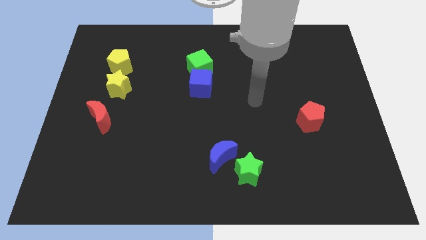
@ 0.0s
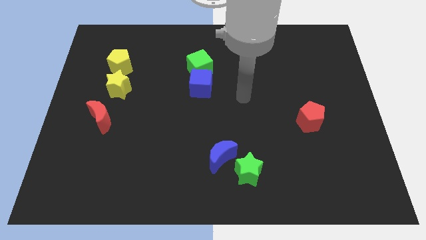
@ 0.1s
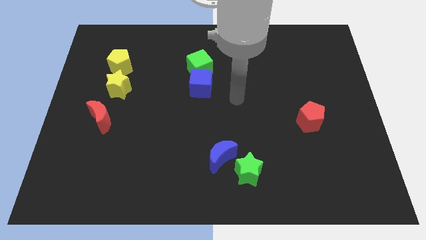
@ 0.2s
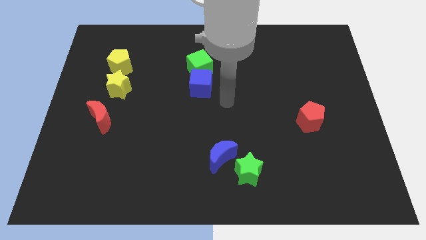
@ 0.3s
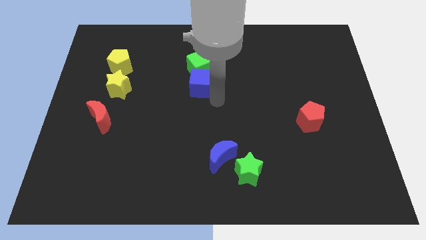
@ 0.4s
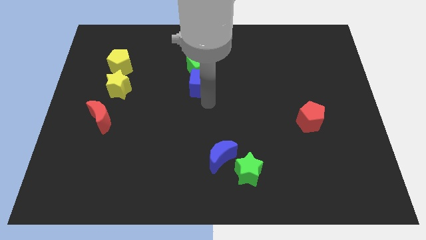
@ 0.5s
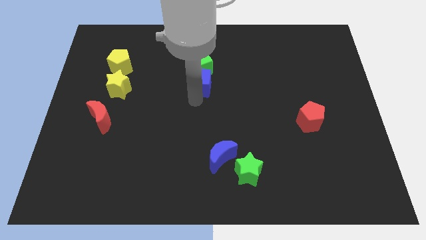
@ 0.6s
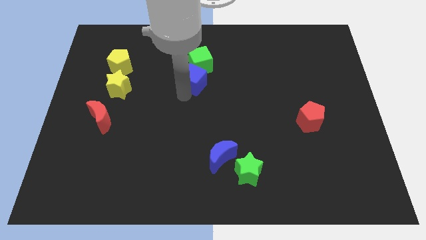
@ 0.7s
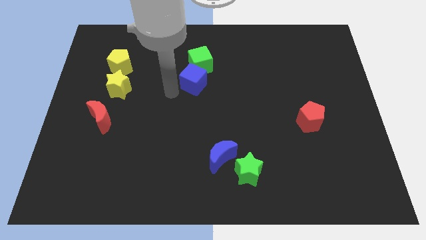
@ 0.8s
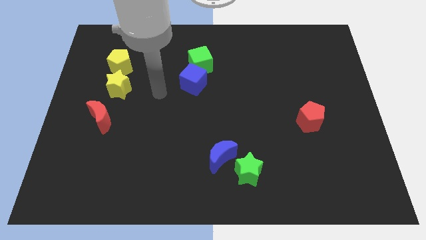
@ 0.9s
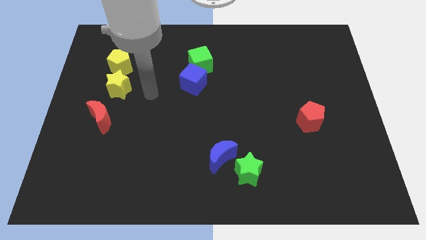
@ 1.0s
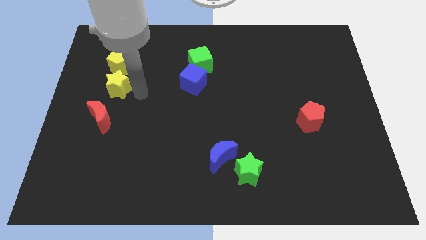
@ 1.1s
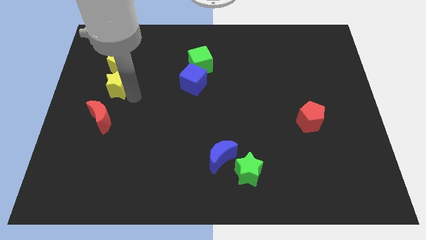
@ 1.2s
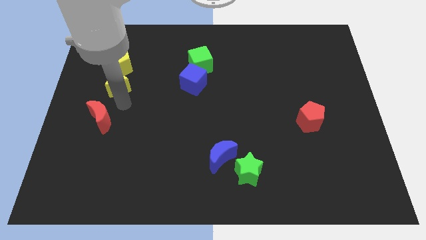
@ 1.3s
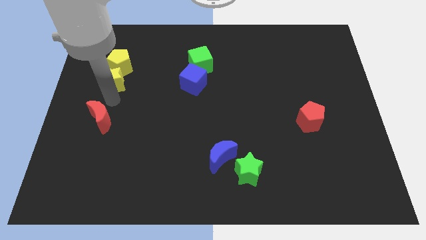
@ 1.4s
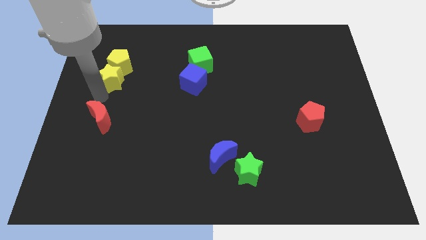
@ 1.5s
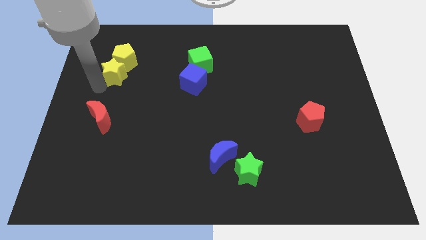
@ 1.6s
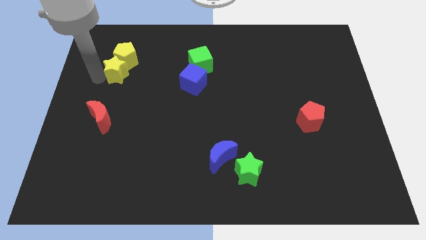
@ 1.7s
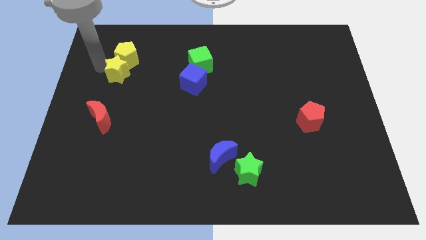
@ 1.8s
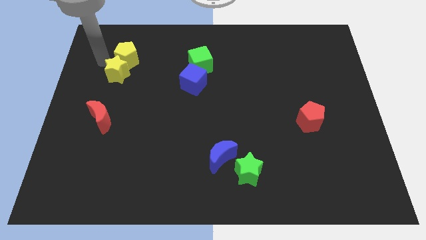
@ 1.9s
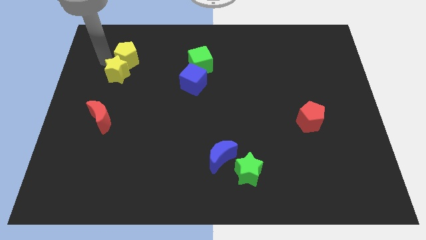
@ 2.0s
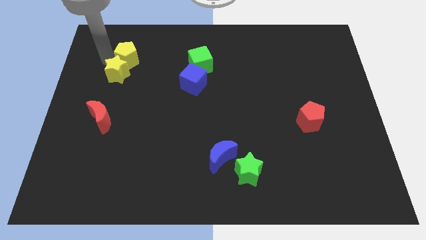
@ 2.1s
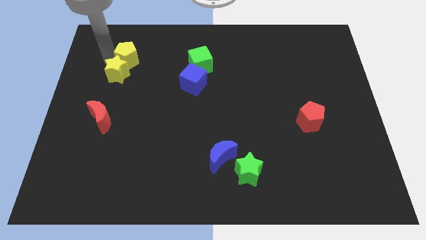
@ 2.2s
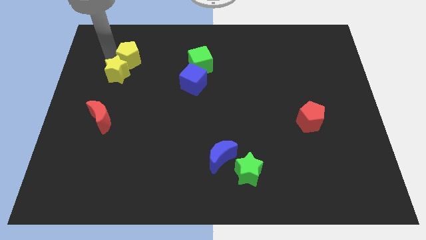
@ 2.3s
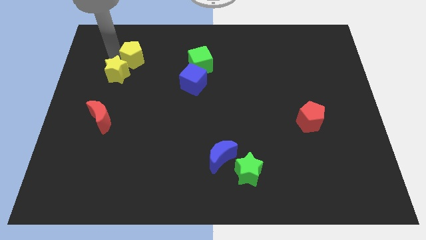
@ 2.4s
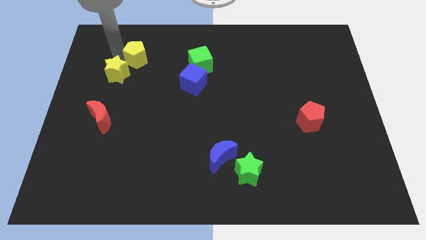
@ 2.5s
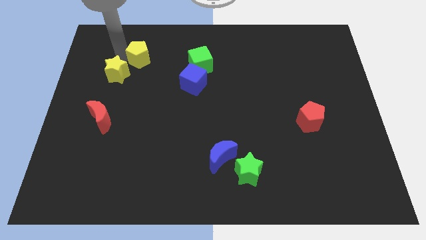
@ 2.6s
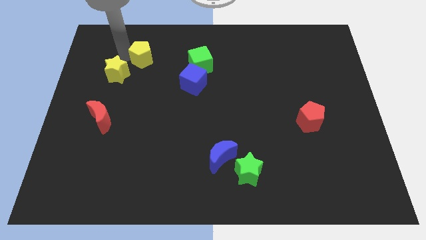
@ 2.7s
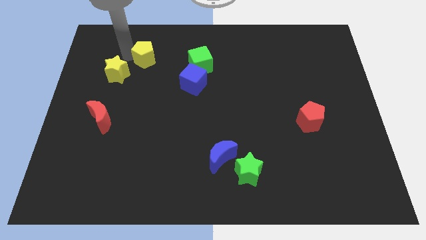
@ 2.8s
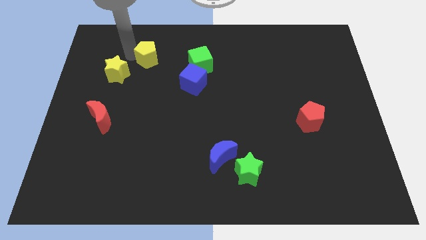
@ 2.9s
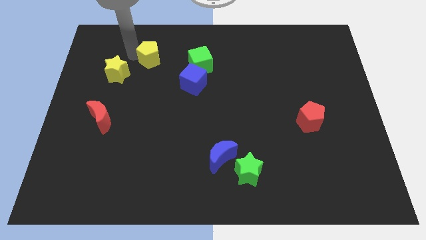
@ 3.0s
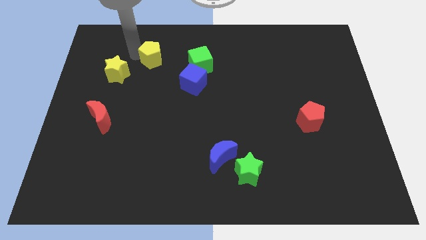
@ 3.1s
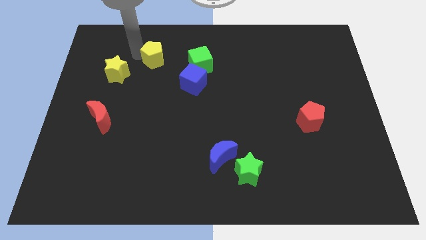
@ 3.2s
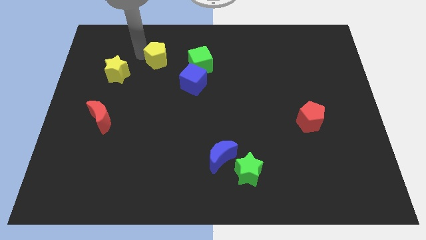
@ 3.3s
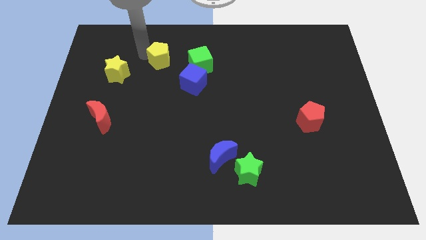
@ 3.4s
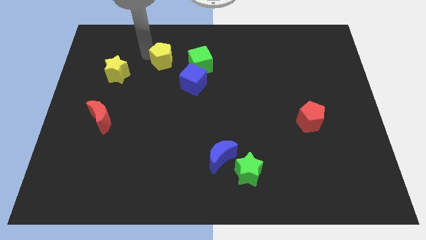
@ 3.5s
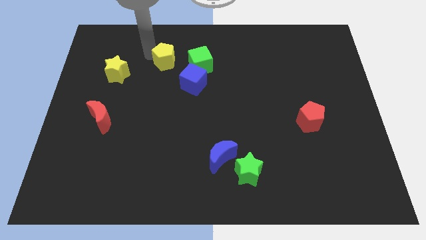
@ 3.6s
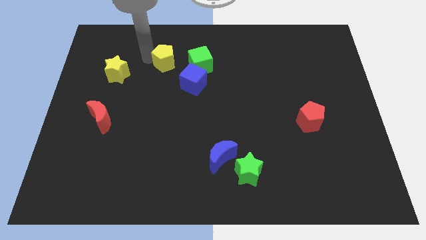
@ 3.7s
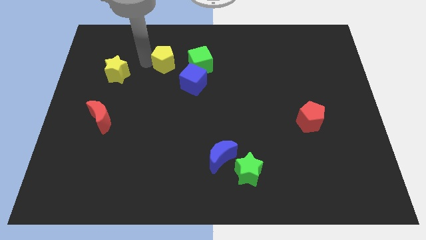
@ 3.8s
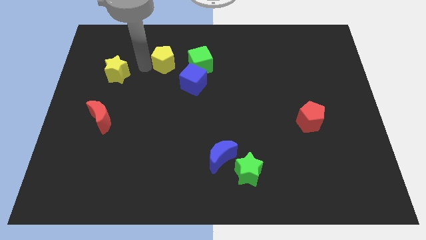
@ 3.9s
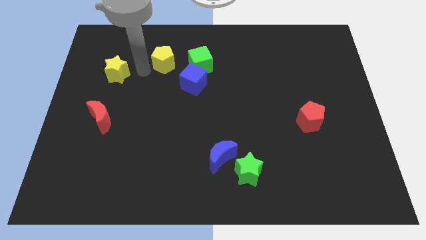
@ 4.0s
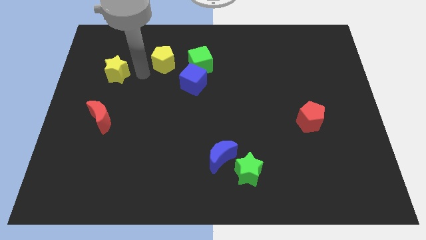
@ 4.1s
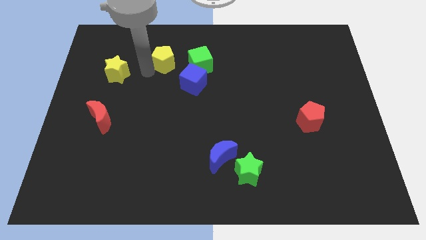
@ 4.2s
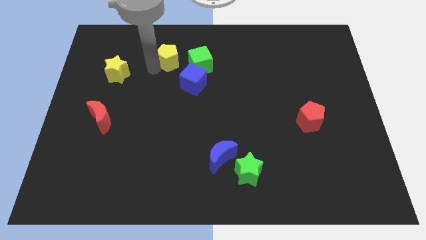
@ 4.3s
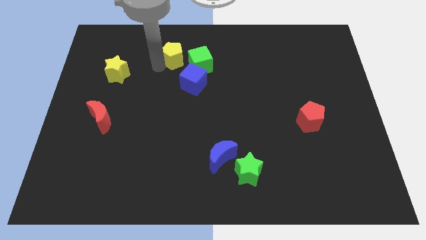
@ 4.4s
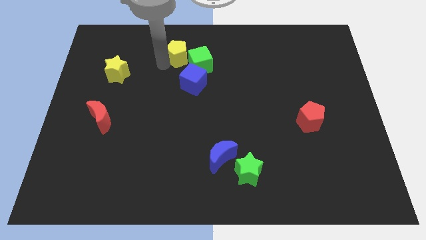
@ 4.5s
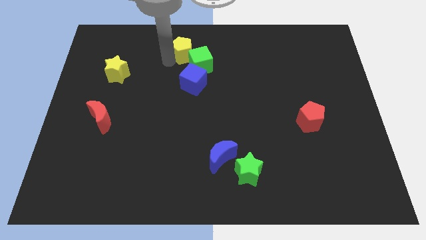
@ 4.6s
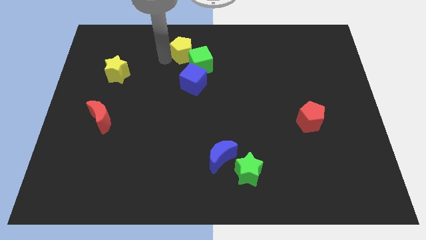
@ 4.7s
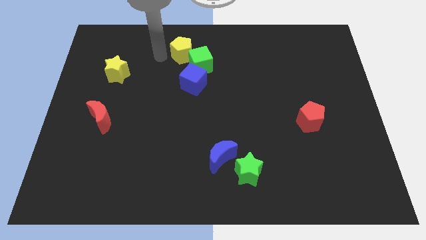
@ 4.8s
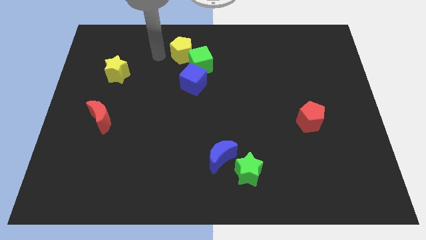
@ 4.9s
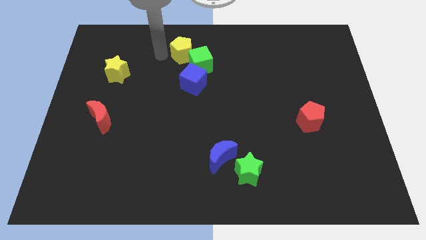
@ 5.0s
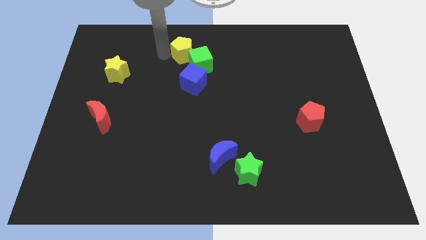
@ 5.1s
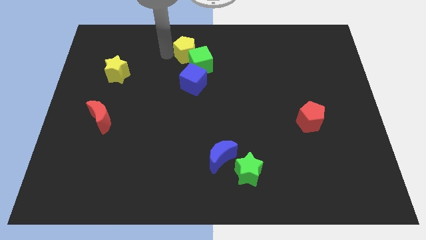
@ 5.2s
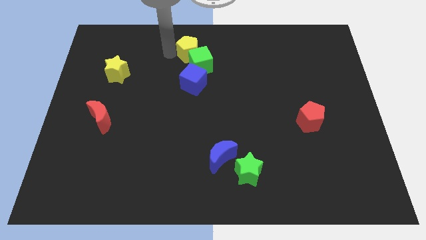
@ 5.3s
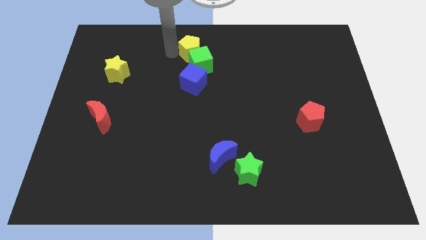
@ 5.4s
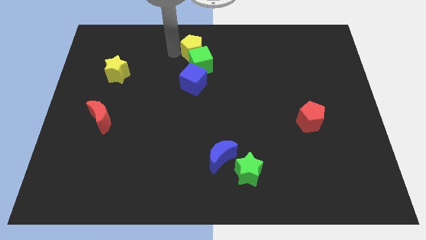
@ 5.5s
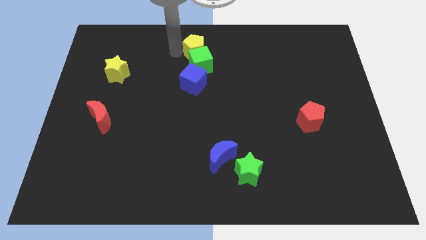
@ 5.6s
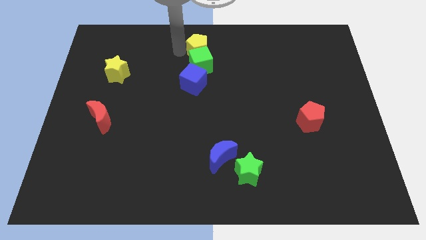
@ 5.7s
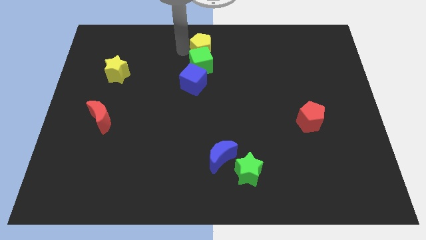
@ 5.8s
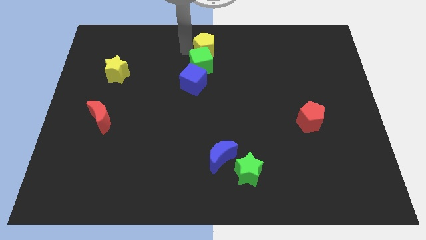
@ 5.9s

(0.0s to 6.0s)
move the yellow pentagon to the right

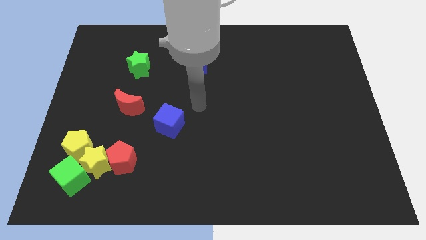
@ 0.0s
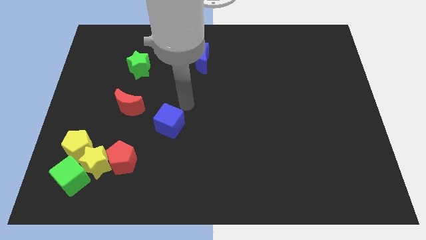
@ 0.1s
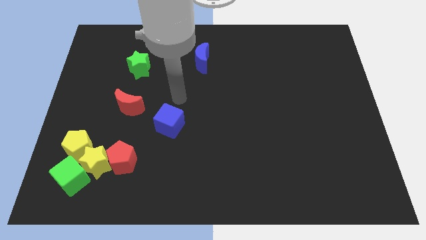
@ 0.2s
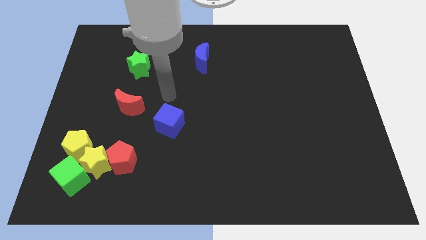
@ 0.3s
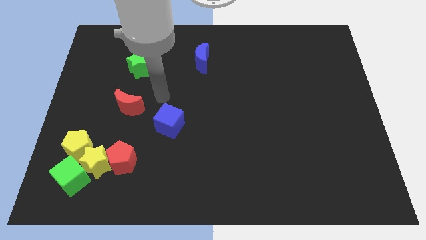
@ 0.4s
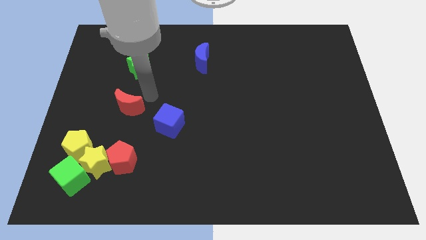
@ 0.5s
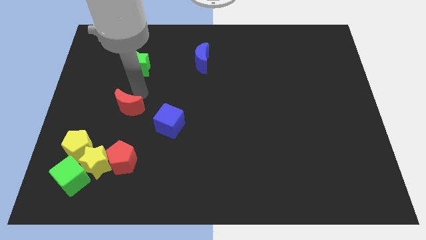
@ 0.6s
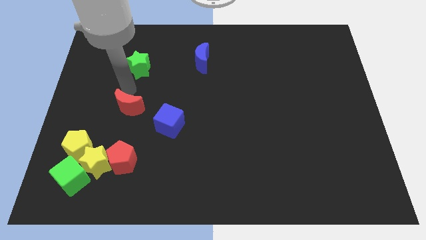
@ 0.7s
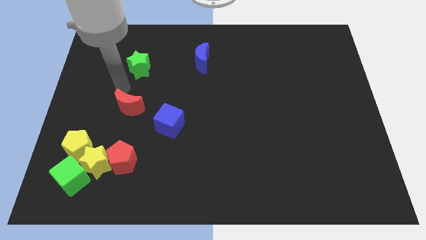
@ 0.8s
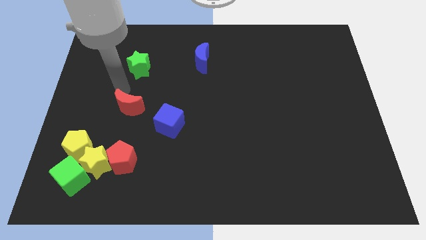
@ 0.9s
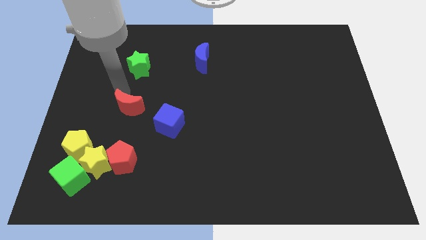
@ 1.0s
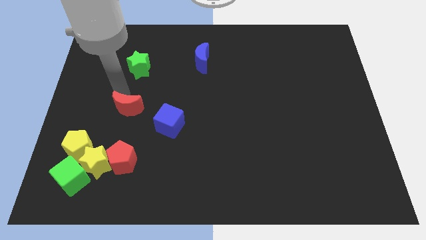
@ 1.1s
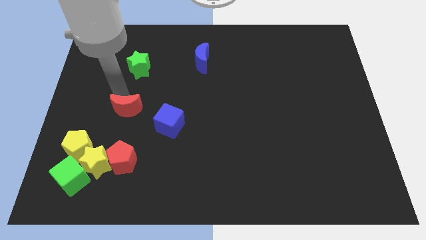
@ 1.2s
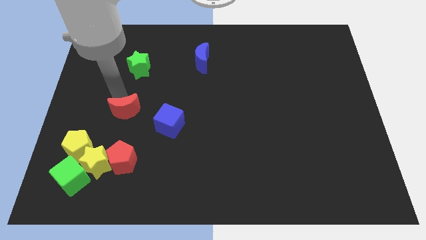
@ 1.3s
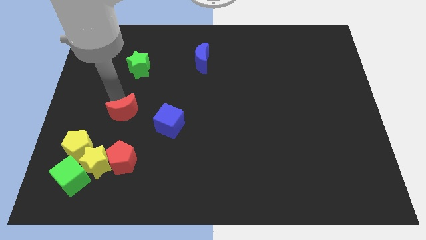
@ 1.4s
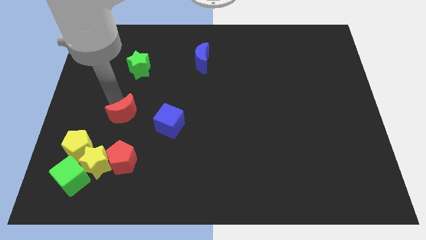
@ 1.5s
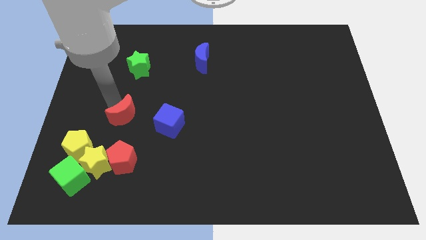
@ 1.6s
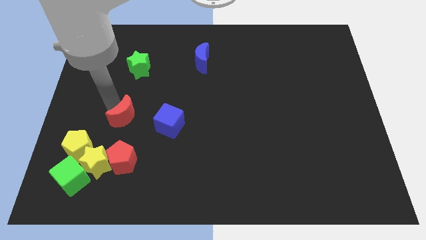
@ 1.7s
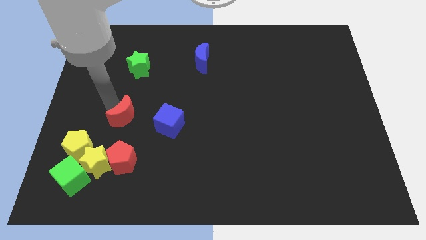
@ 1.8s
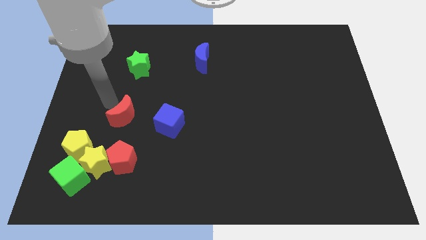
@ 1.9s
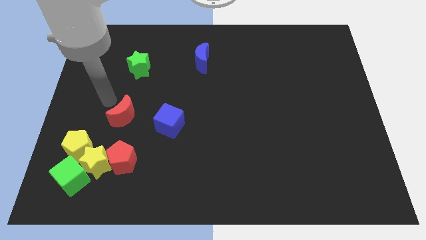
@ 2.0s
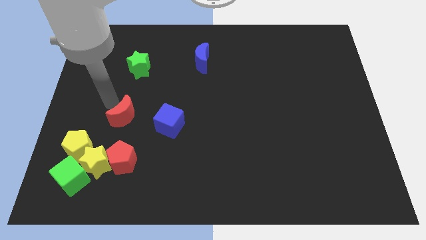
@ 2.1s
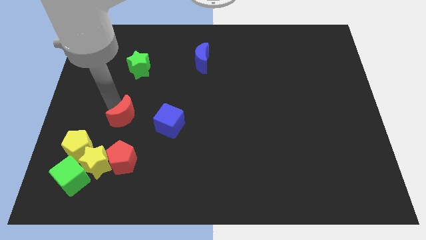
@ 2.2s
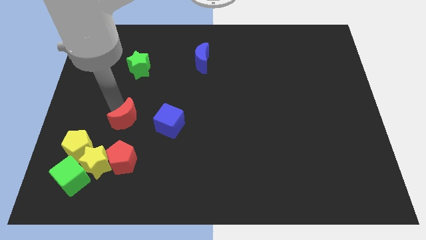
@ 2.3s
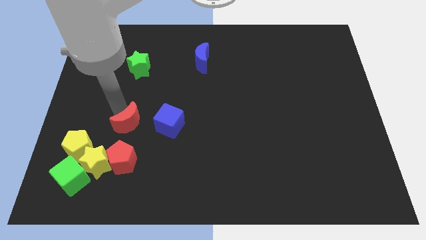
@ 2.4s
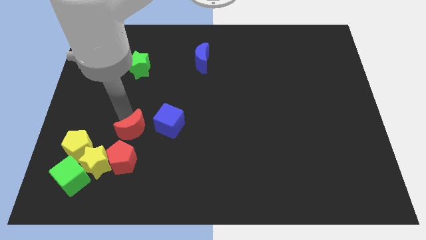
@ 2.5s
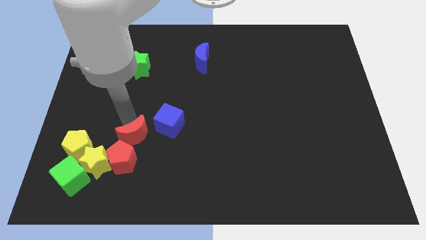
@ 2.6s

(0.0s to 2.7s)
push the red moon a little bit downwards
